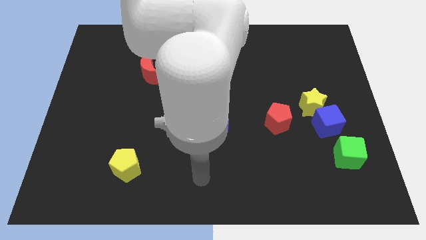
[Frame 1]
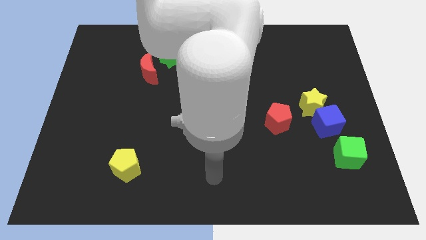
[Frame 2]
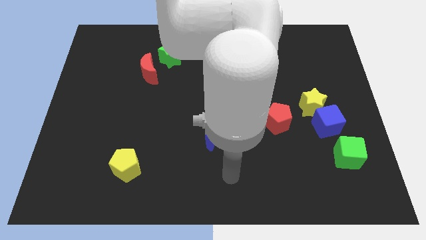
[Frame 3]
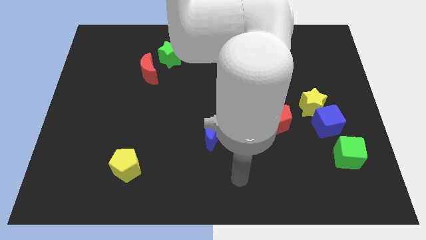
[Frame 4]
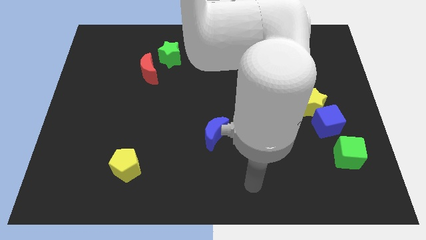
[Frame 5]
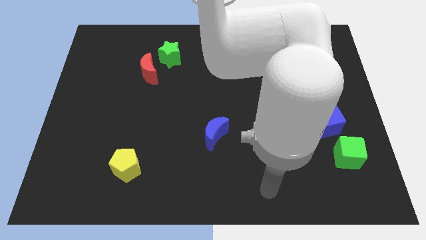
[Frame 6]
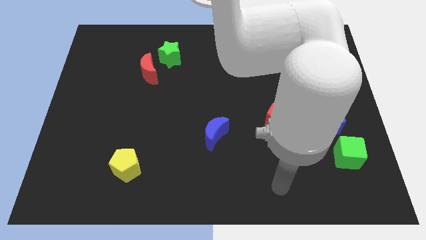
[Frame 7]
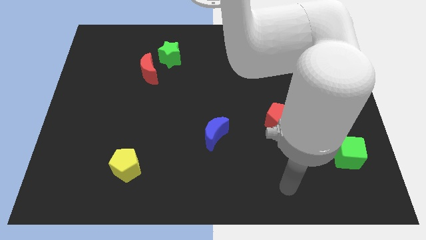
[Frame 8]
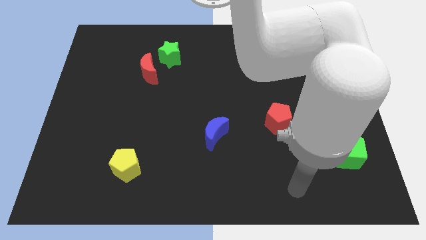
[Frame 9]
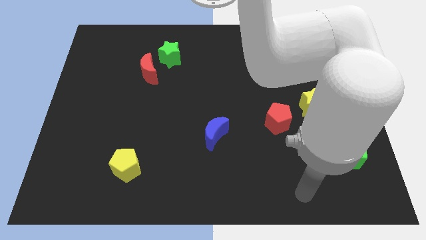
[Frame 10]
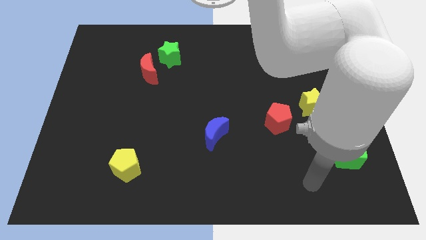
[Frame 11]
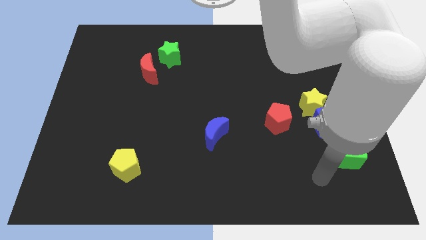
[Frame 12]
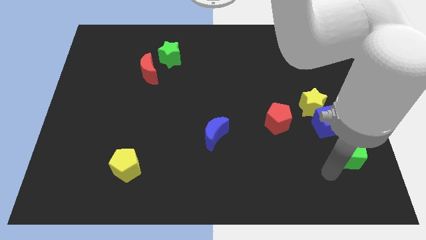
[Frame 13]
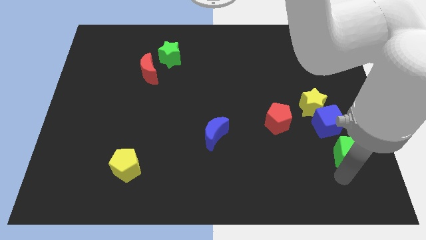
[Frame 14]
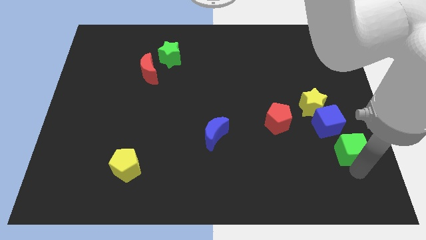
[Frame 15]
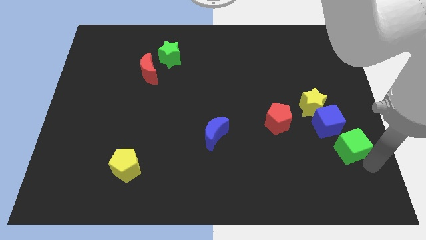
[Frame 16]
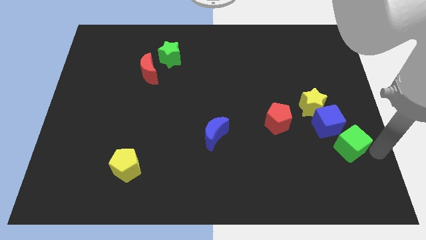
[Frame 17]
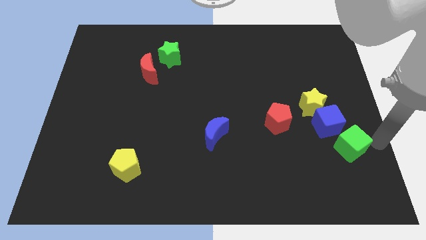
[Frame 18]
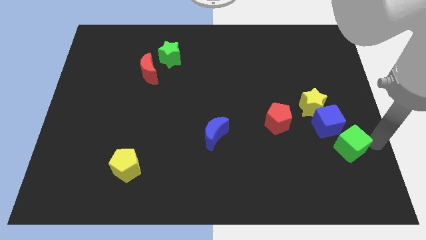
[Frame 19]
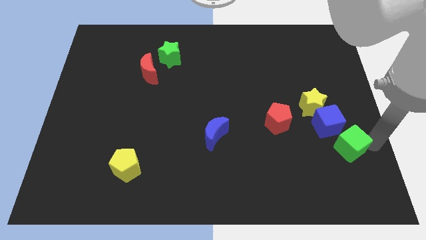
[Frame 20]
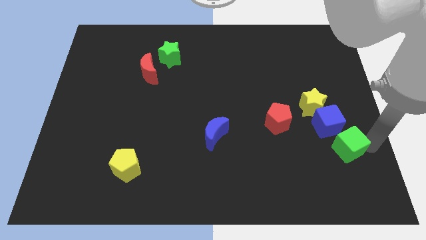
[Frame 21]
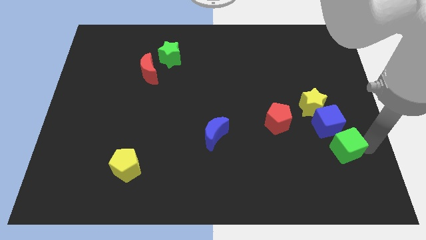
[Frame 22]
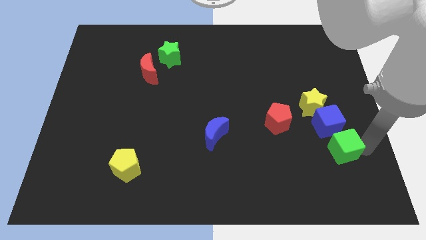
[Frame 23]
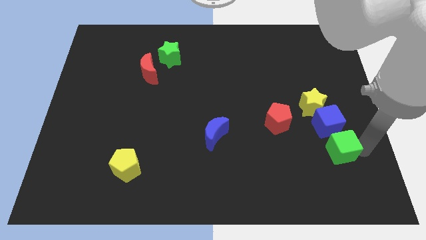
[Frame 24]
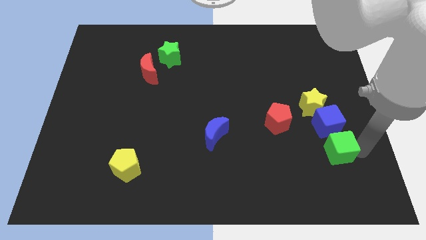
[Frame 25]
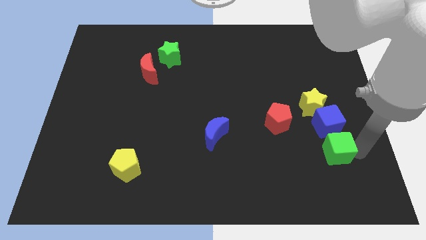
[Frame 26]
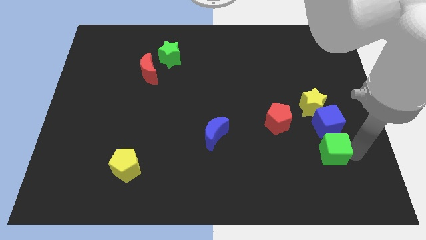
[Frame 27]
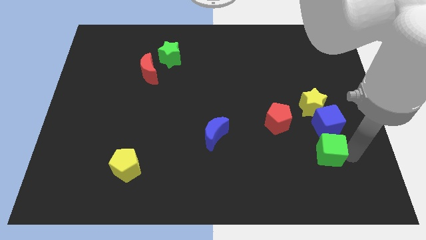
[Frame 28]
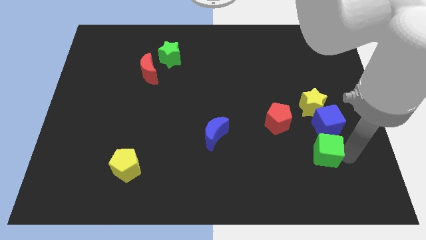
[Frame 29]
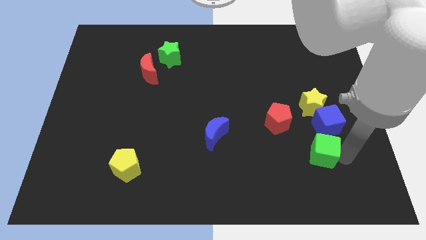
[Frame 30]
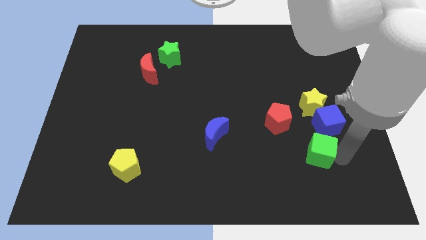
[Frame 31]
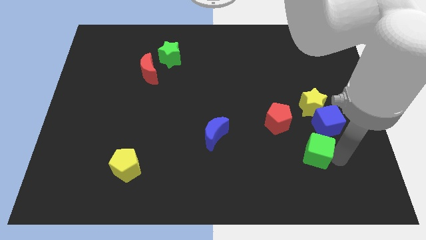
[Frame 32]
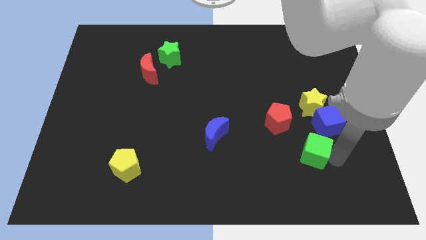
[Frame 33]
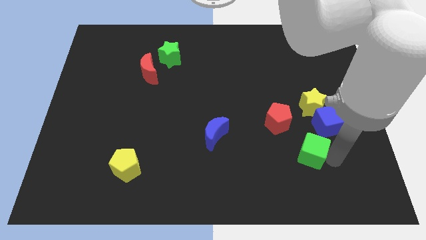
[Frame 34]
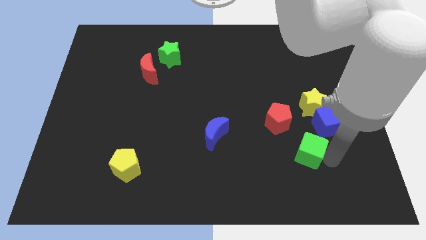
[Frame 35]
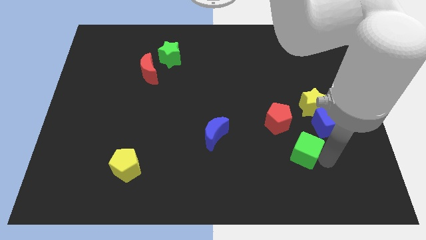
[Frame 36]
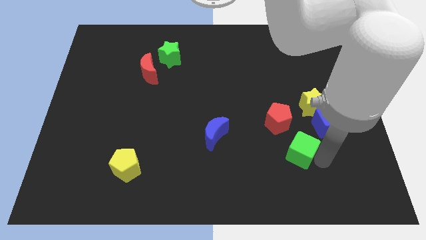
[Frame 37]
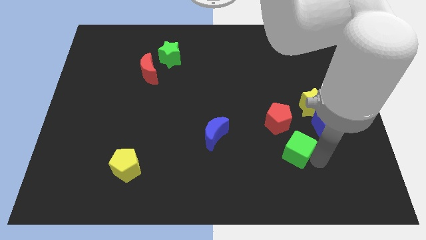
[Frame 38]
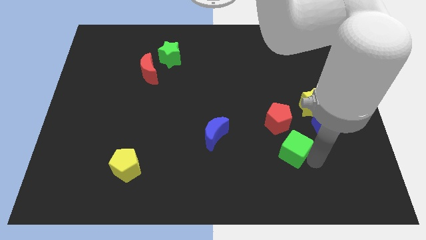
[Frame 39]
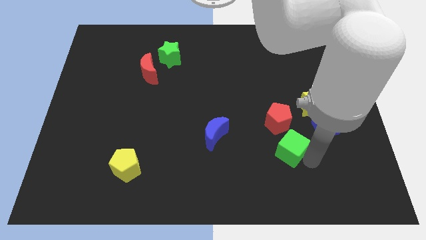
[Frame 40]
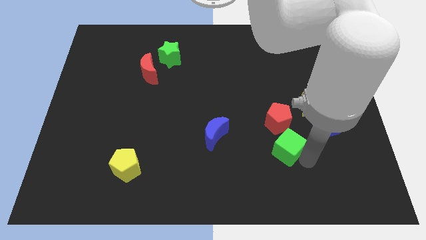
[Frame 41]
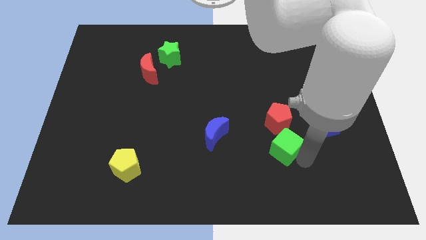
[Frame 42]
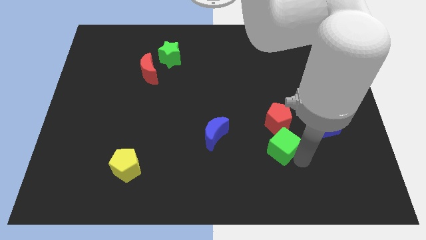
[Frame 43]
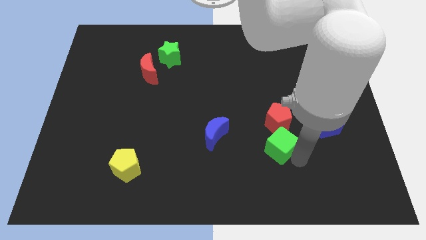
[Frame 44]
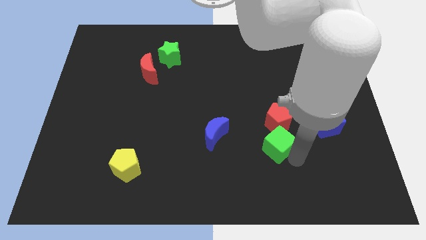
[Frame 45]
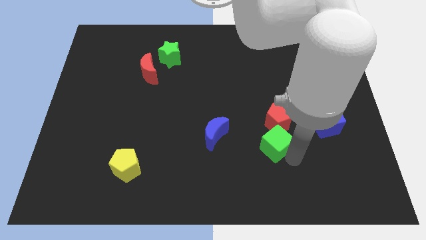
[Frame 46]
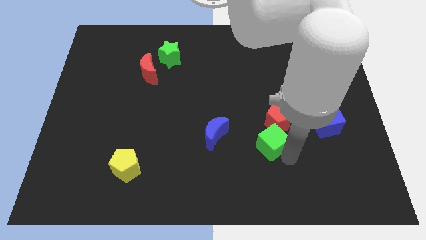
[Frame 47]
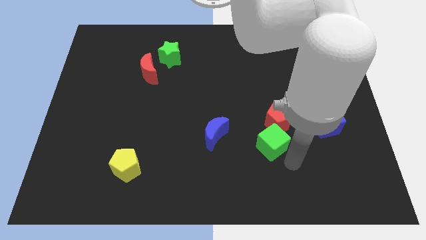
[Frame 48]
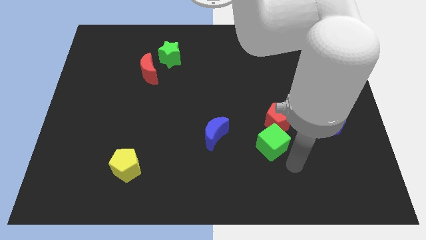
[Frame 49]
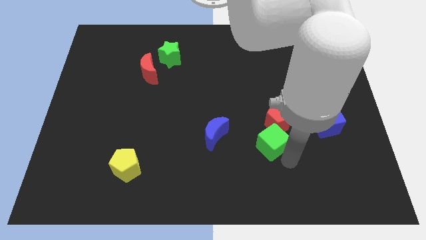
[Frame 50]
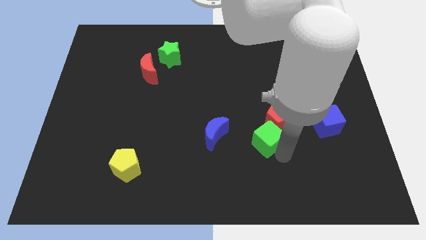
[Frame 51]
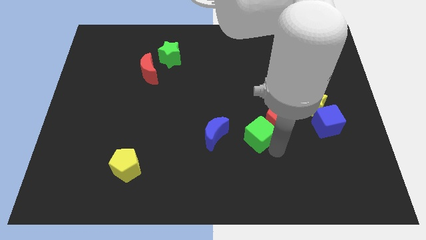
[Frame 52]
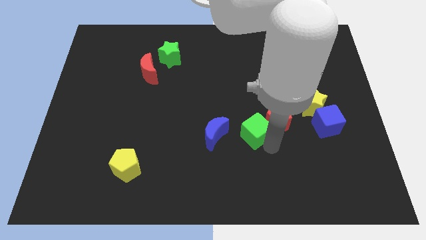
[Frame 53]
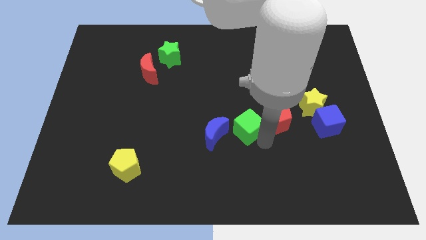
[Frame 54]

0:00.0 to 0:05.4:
slide the green cube to the center

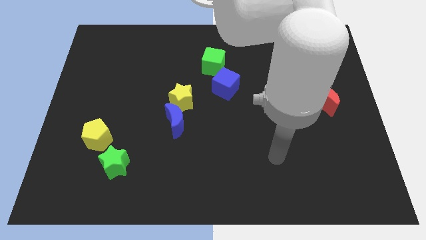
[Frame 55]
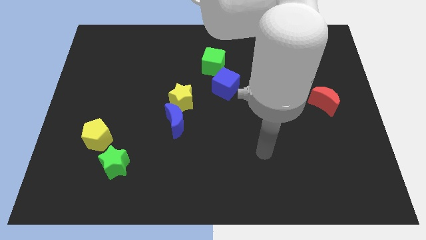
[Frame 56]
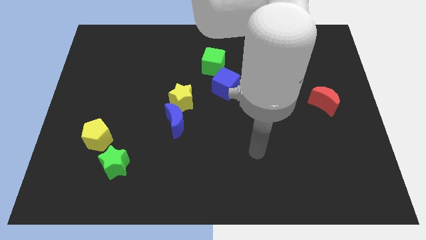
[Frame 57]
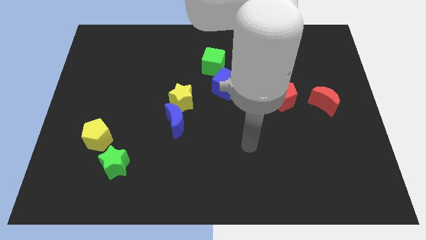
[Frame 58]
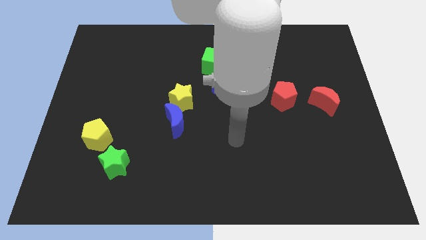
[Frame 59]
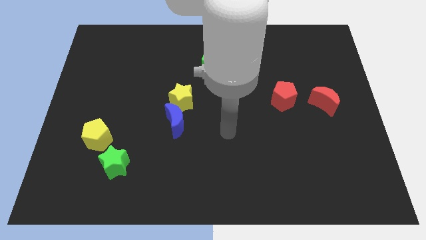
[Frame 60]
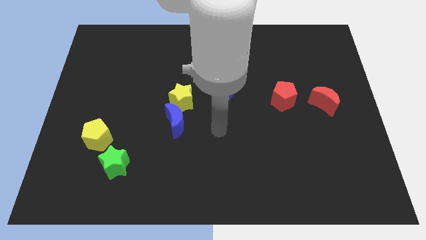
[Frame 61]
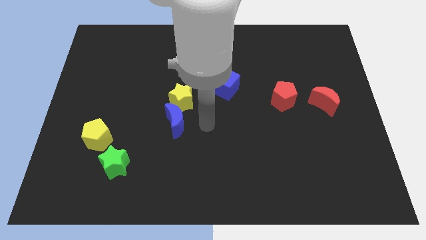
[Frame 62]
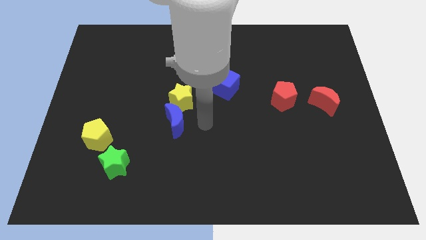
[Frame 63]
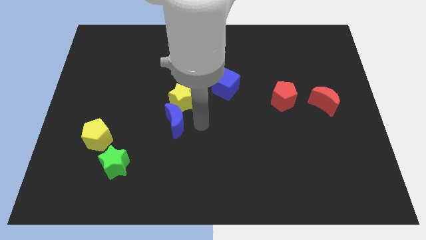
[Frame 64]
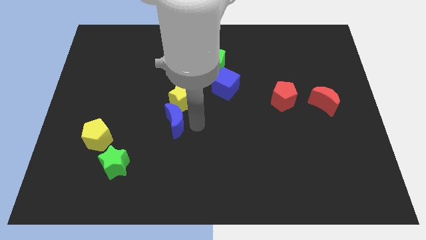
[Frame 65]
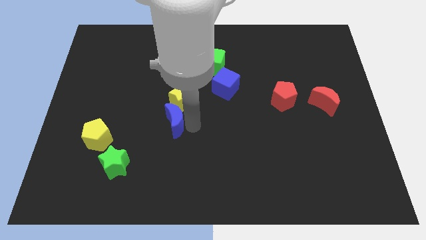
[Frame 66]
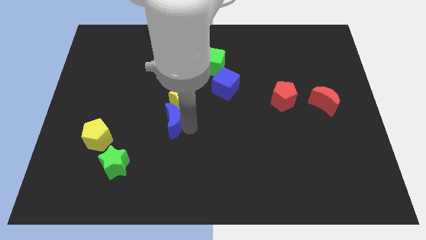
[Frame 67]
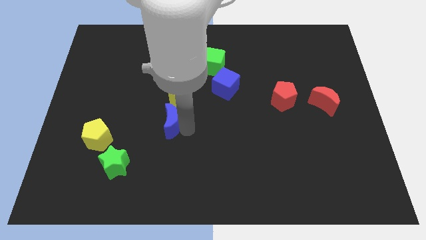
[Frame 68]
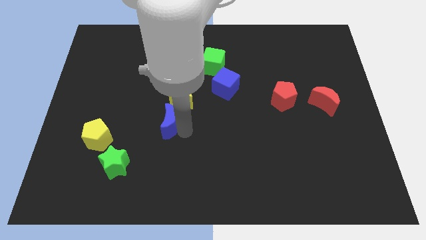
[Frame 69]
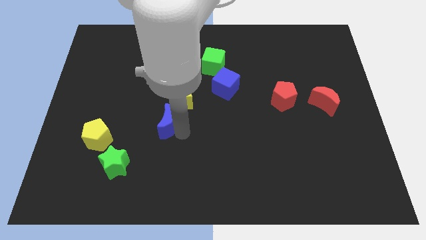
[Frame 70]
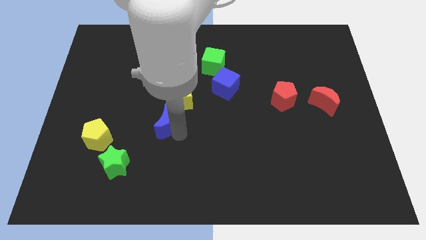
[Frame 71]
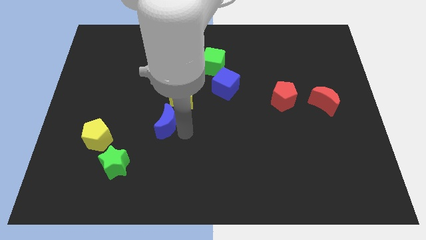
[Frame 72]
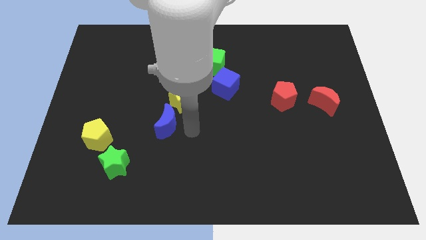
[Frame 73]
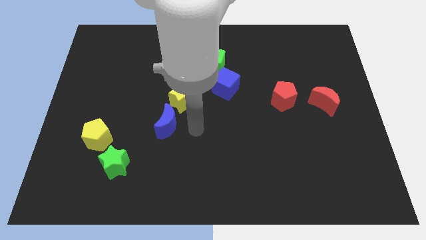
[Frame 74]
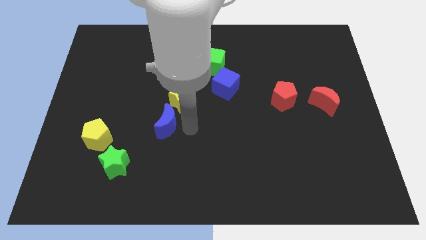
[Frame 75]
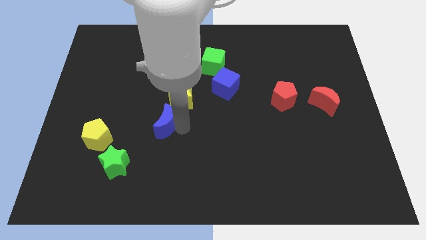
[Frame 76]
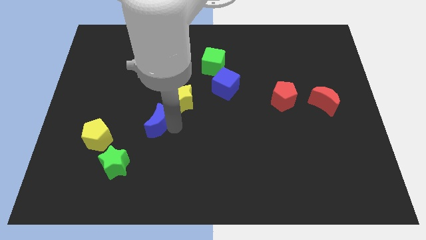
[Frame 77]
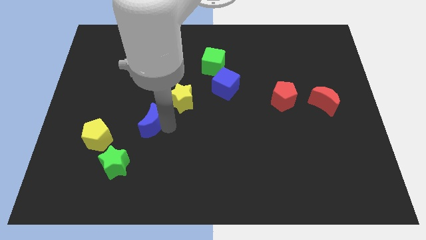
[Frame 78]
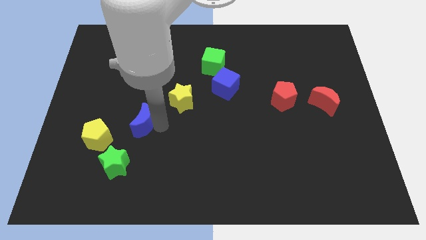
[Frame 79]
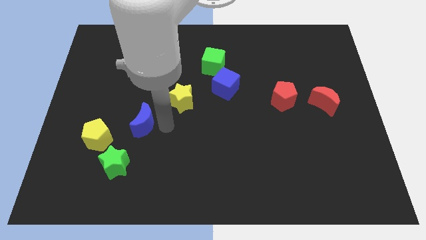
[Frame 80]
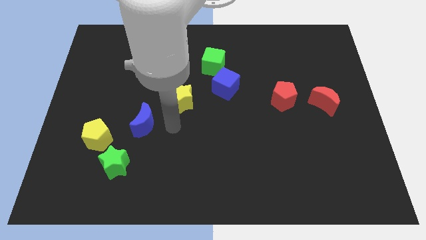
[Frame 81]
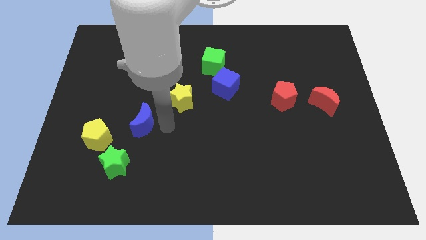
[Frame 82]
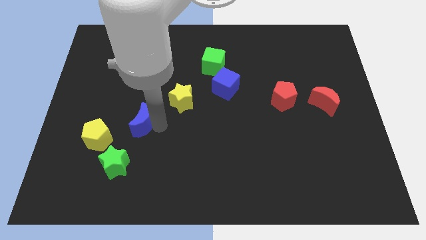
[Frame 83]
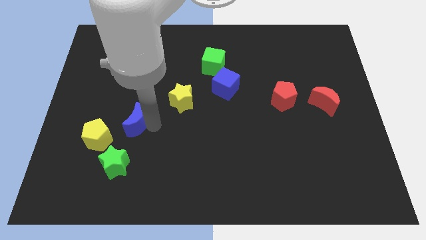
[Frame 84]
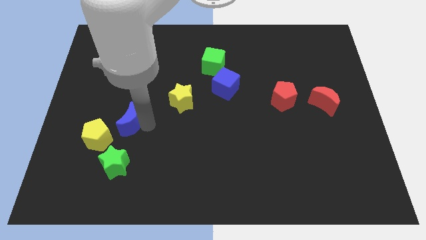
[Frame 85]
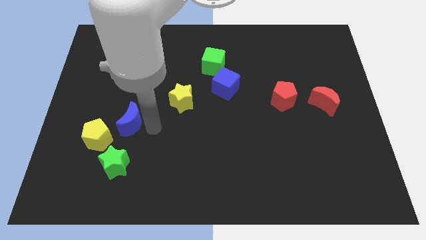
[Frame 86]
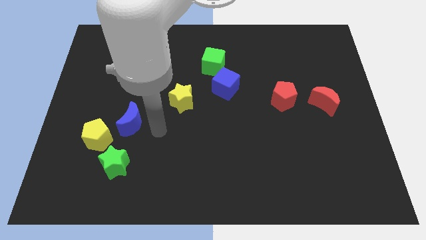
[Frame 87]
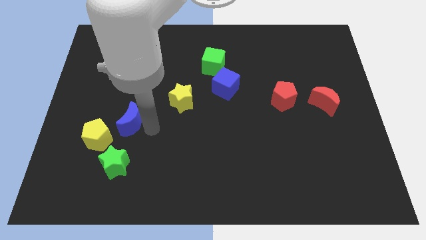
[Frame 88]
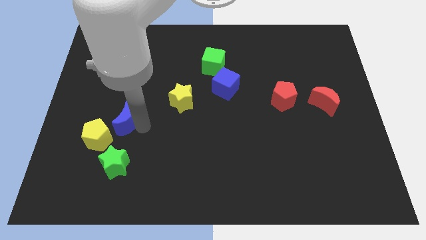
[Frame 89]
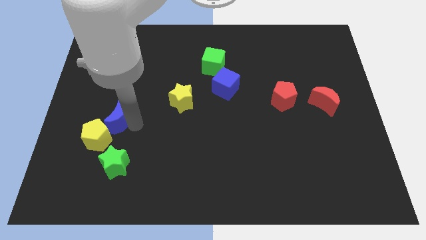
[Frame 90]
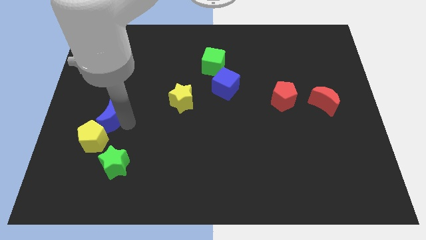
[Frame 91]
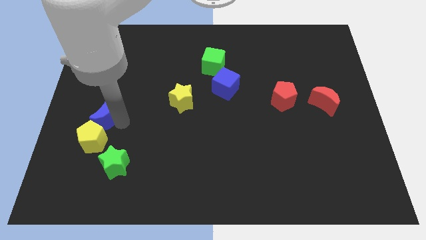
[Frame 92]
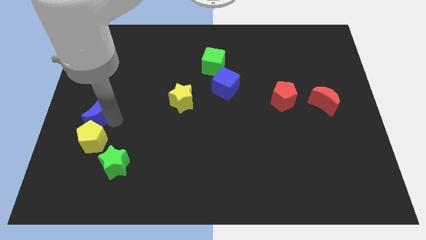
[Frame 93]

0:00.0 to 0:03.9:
slide the blue moon to the left side of the board
